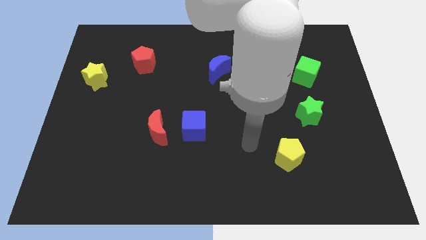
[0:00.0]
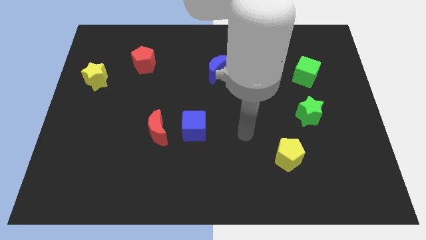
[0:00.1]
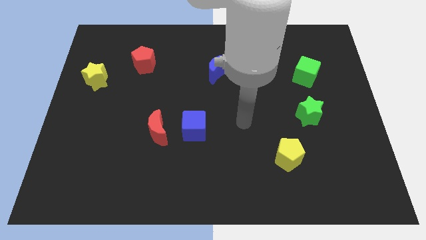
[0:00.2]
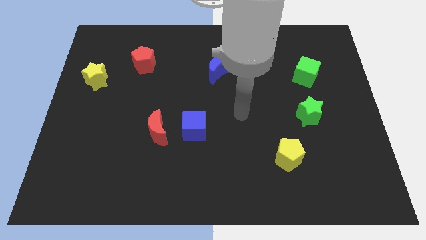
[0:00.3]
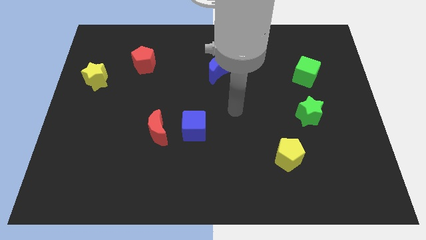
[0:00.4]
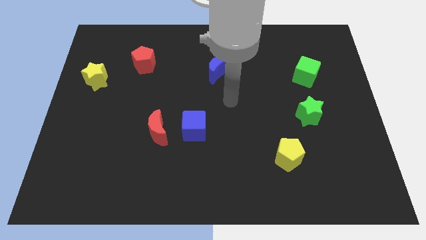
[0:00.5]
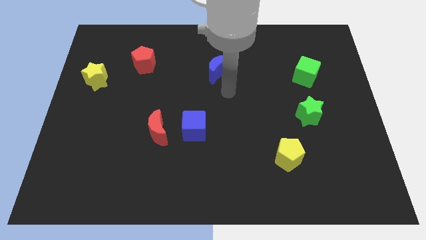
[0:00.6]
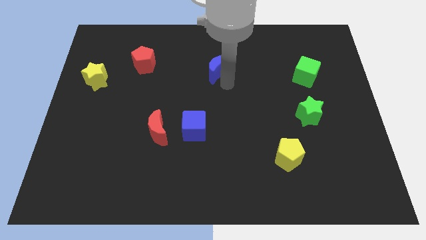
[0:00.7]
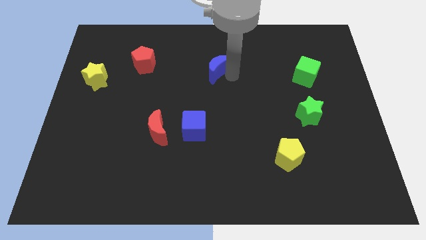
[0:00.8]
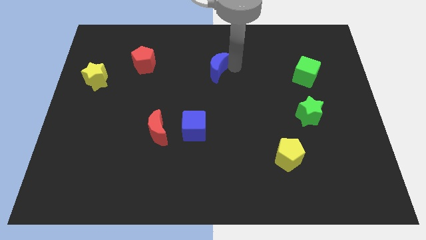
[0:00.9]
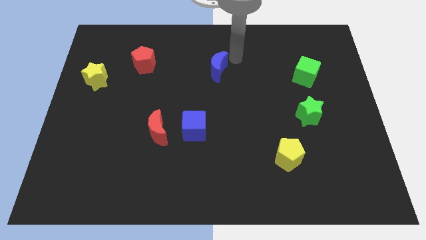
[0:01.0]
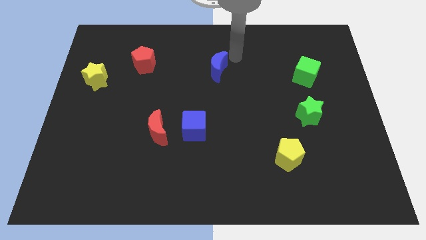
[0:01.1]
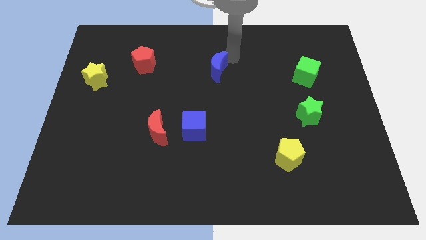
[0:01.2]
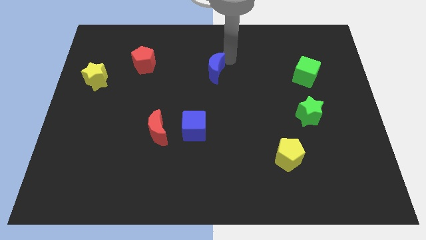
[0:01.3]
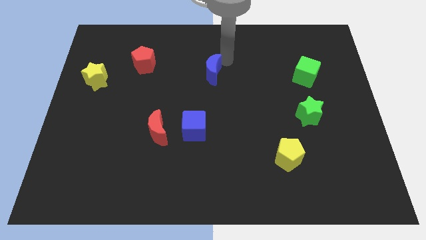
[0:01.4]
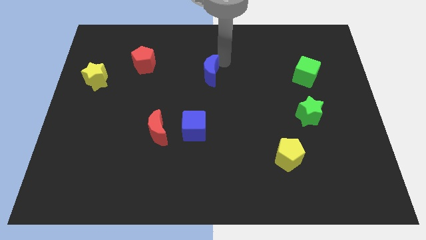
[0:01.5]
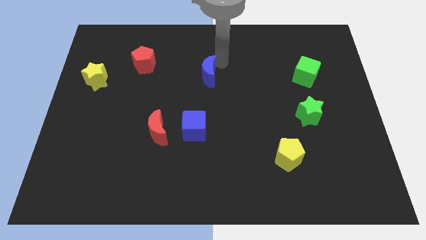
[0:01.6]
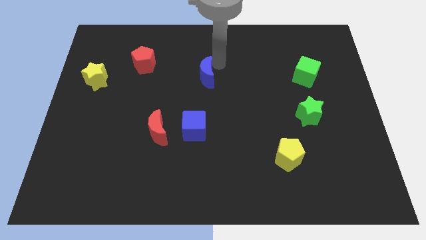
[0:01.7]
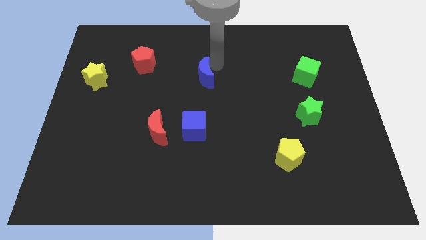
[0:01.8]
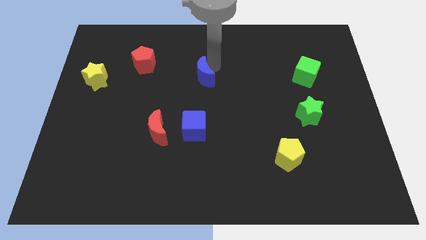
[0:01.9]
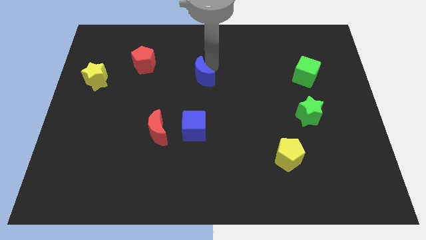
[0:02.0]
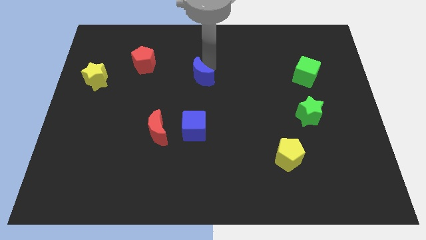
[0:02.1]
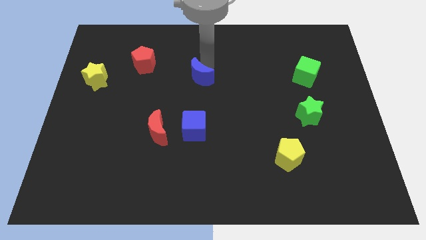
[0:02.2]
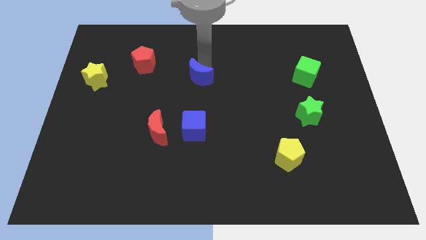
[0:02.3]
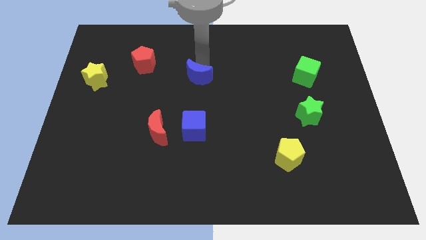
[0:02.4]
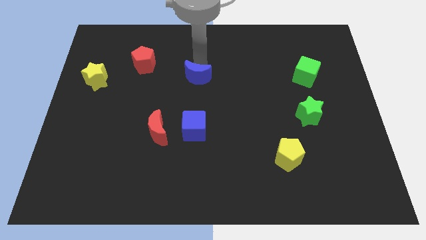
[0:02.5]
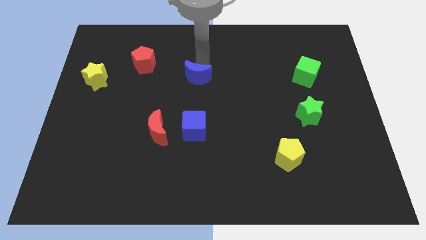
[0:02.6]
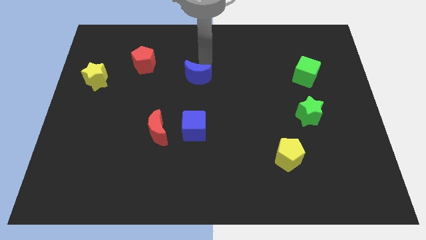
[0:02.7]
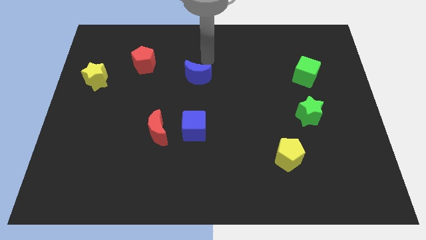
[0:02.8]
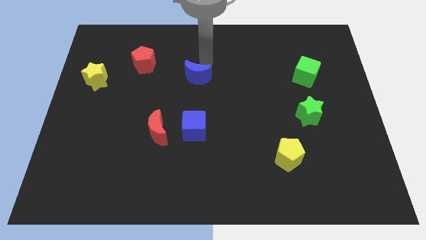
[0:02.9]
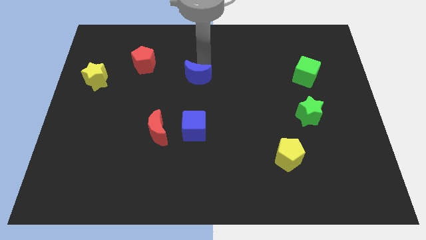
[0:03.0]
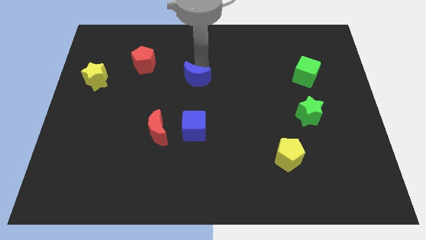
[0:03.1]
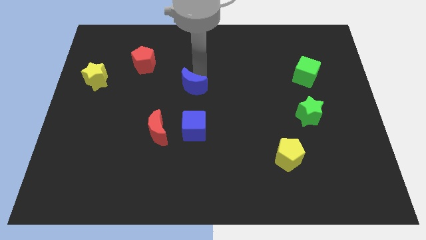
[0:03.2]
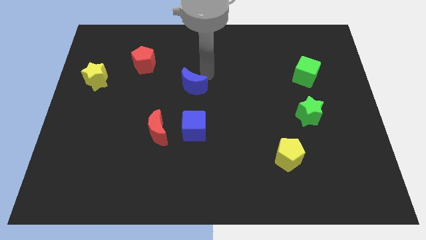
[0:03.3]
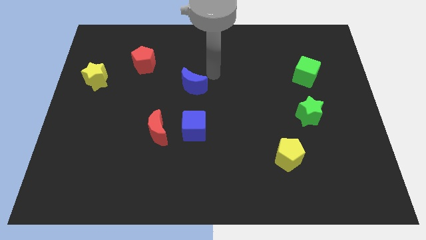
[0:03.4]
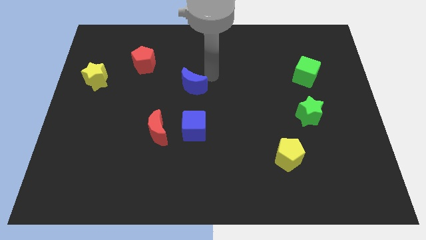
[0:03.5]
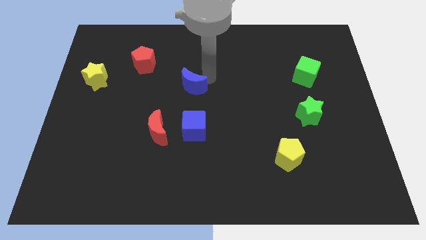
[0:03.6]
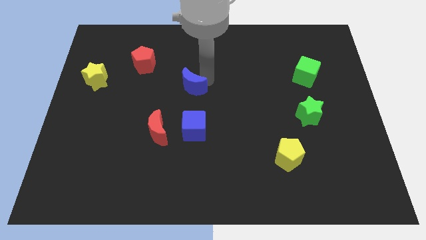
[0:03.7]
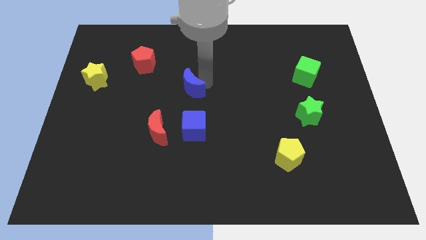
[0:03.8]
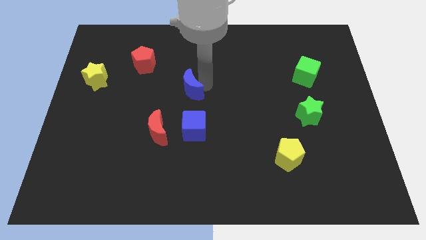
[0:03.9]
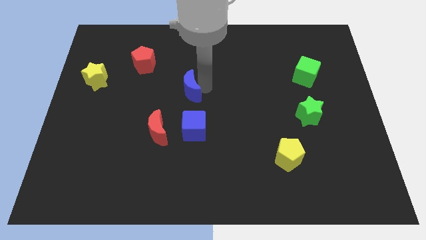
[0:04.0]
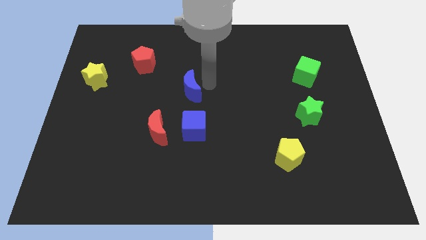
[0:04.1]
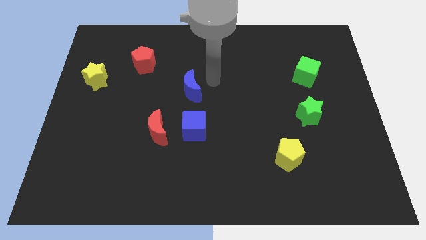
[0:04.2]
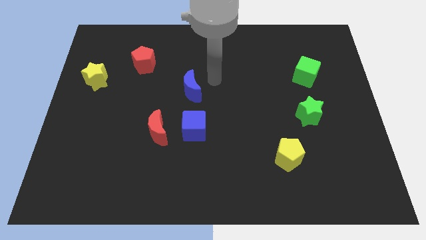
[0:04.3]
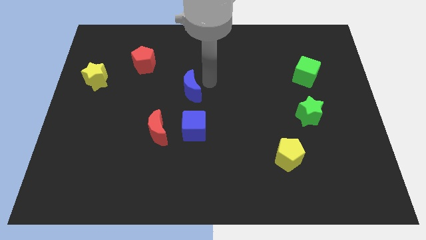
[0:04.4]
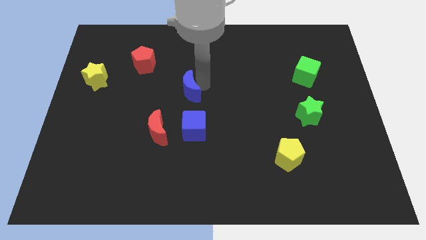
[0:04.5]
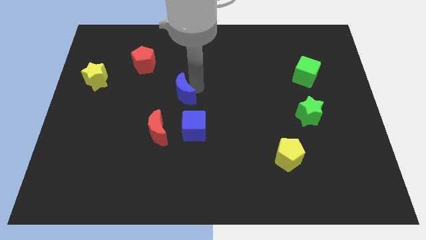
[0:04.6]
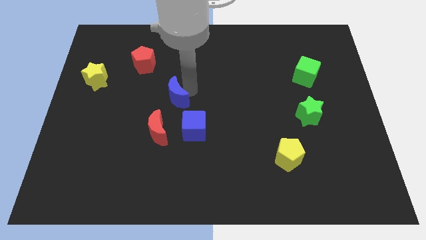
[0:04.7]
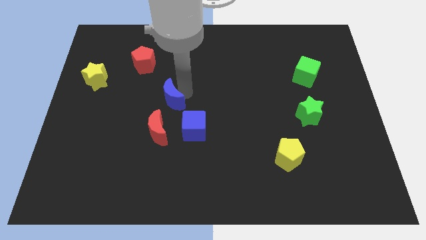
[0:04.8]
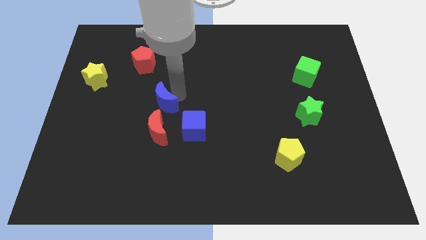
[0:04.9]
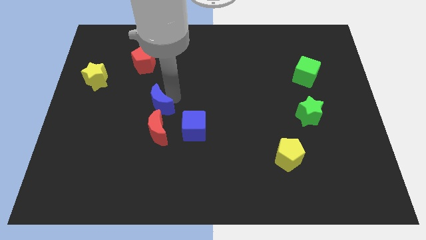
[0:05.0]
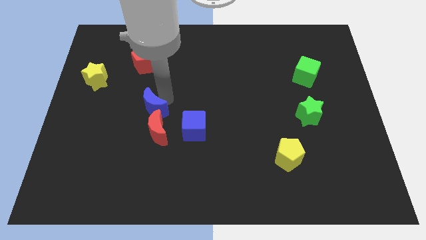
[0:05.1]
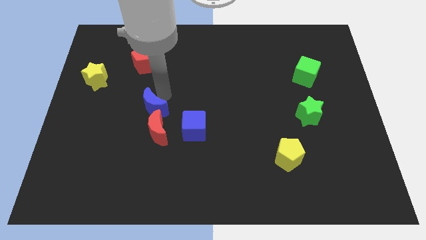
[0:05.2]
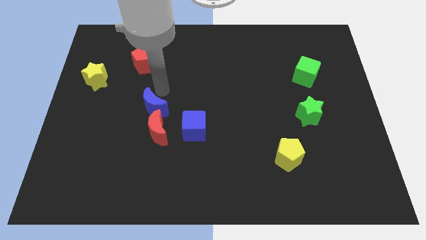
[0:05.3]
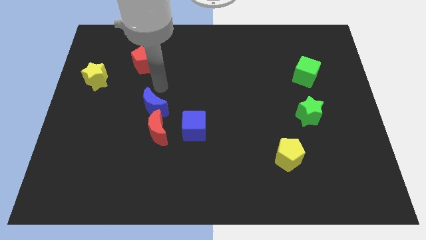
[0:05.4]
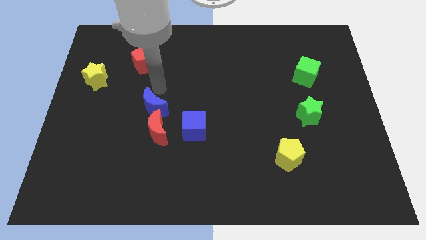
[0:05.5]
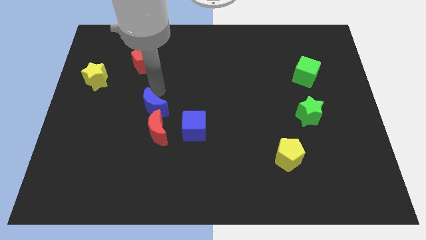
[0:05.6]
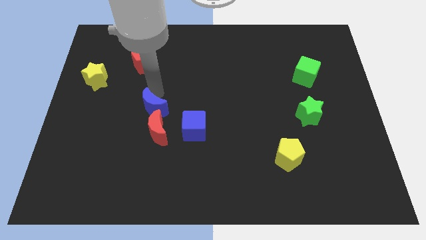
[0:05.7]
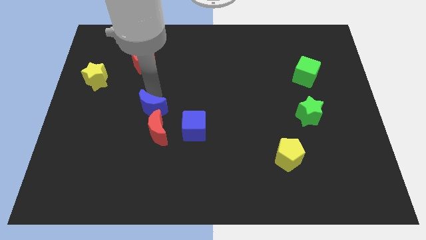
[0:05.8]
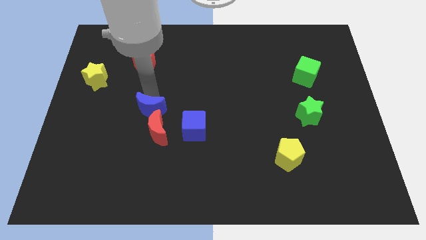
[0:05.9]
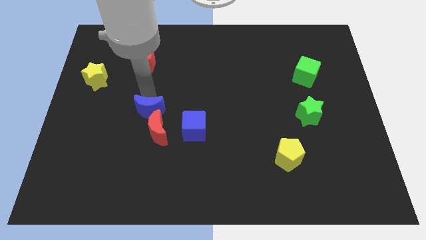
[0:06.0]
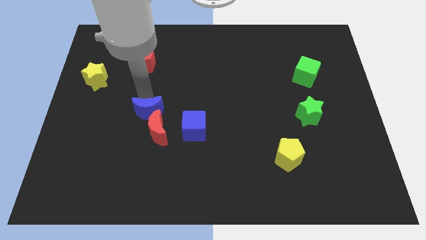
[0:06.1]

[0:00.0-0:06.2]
move the blue moon to the left side of the blue cube

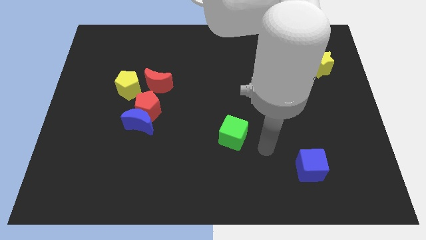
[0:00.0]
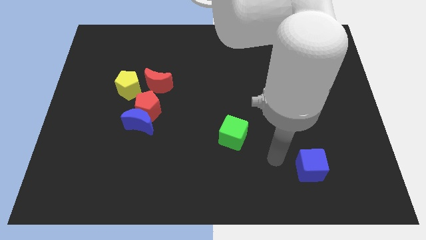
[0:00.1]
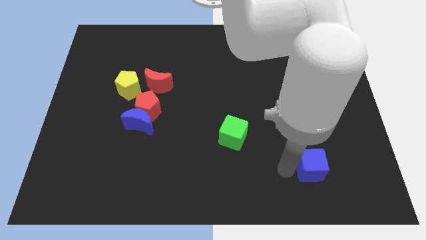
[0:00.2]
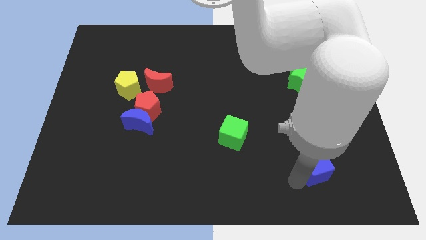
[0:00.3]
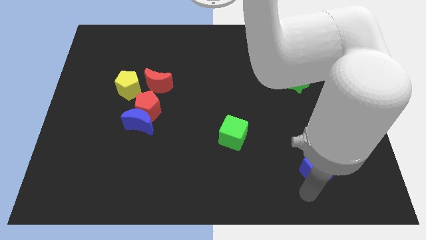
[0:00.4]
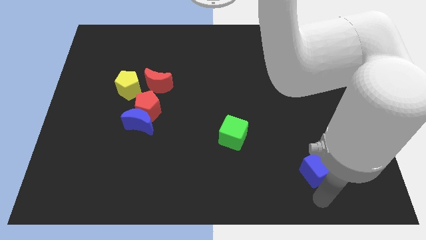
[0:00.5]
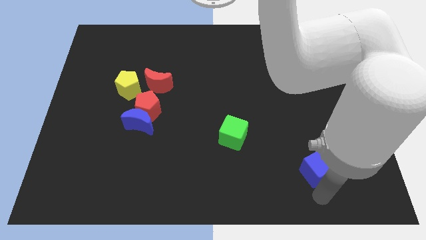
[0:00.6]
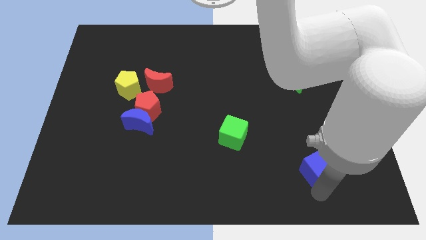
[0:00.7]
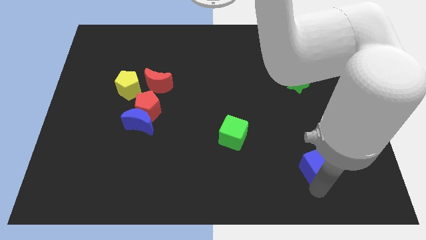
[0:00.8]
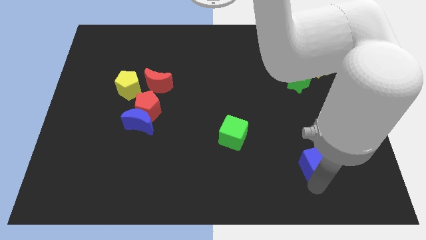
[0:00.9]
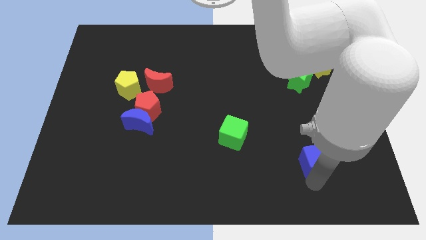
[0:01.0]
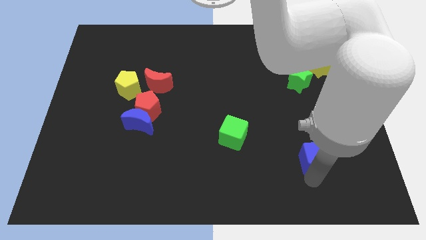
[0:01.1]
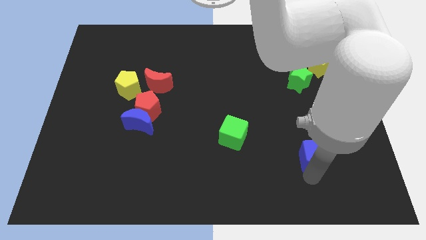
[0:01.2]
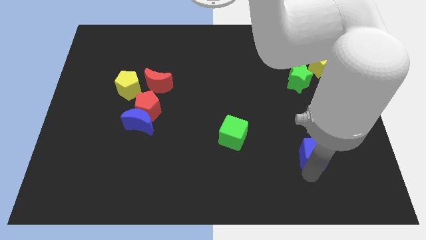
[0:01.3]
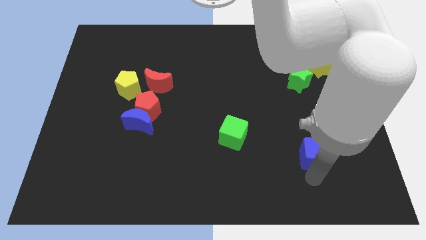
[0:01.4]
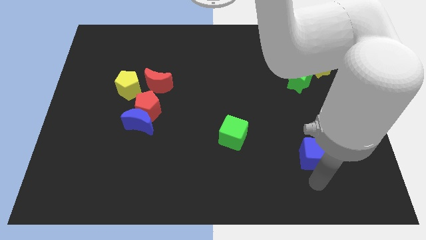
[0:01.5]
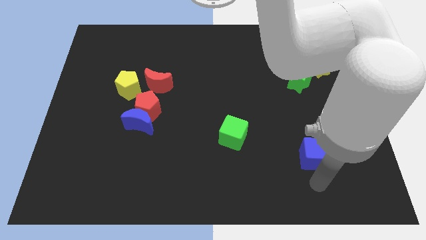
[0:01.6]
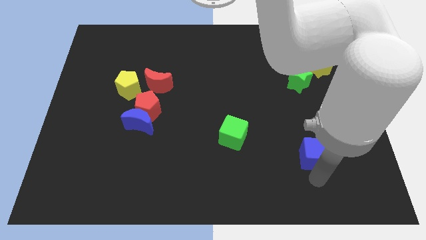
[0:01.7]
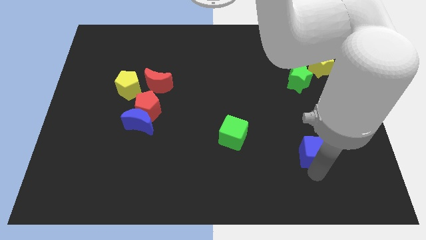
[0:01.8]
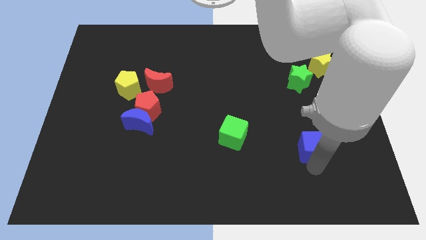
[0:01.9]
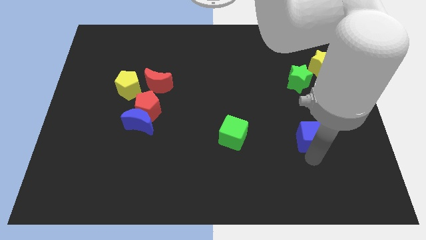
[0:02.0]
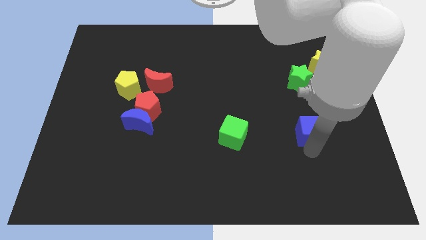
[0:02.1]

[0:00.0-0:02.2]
move the blue cube to the bottom of the green star
